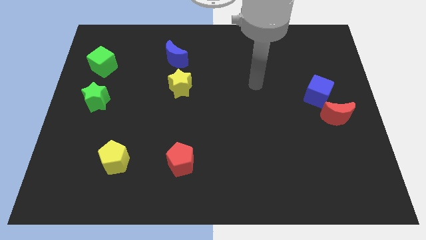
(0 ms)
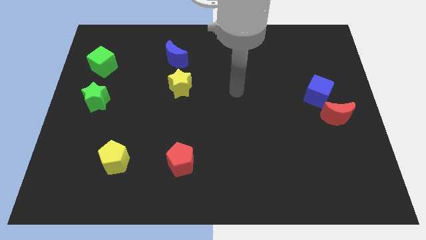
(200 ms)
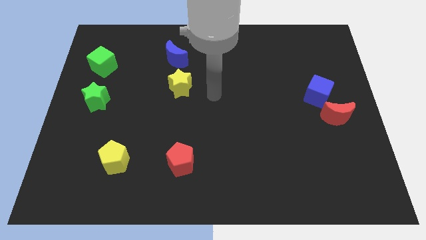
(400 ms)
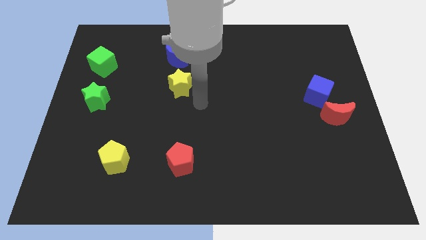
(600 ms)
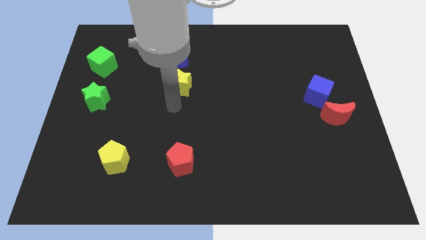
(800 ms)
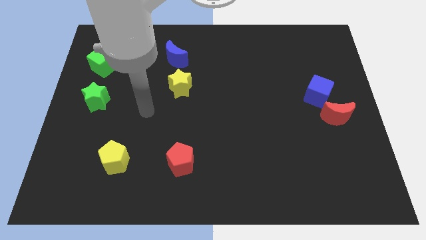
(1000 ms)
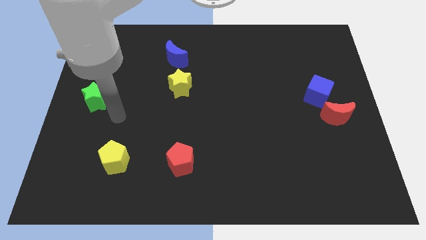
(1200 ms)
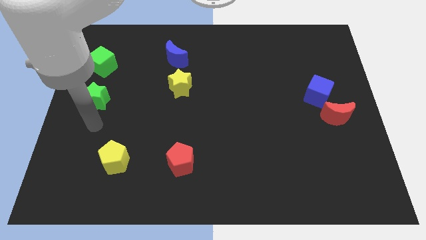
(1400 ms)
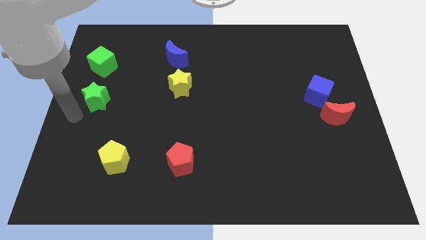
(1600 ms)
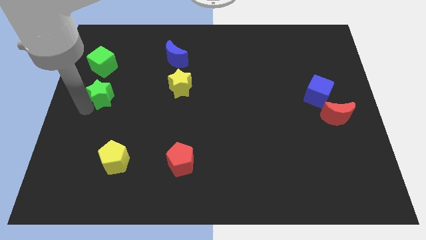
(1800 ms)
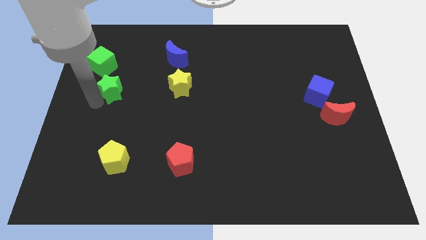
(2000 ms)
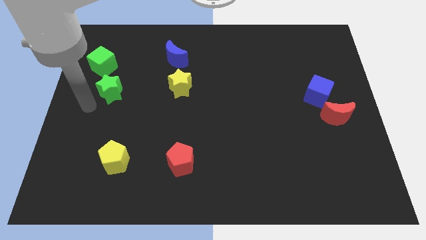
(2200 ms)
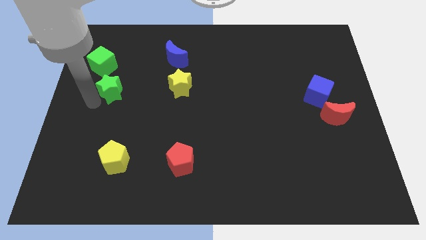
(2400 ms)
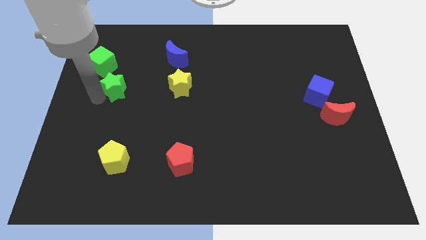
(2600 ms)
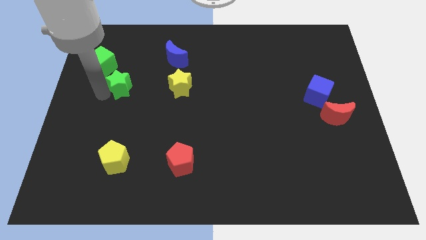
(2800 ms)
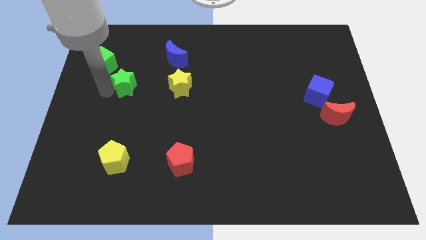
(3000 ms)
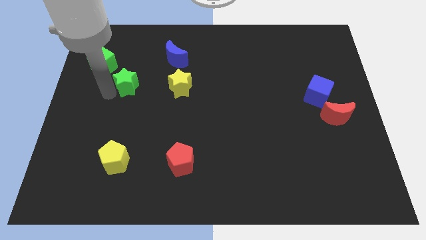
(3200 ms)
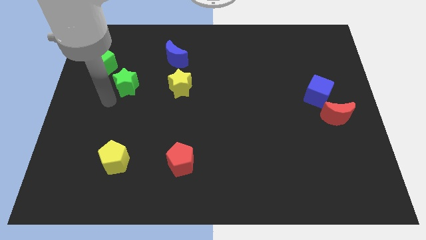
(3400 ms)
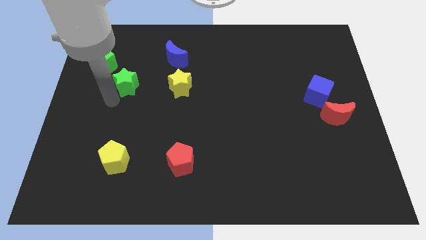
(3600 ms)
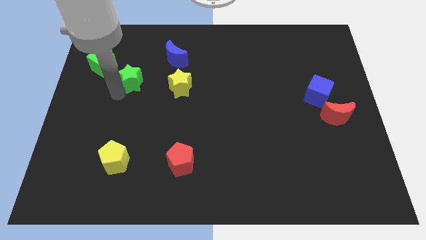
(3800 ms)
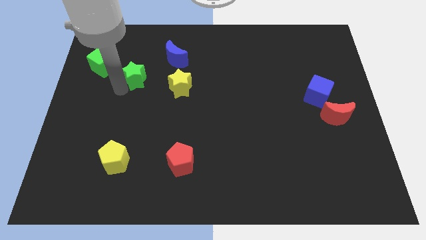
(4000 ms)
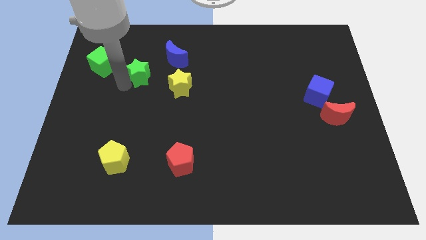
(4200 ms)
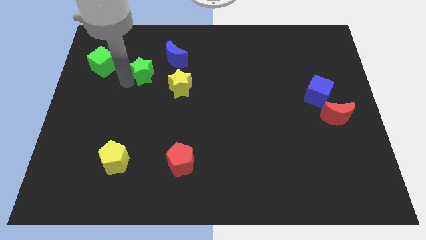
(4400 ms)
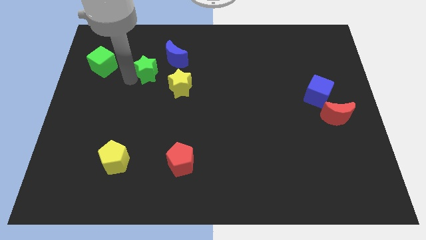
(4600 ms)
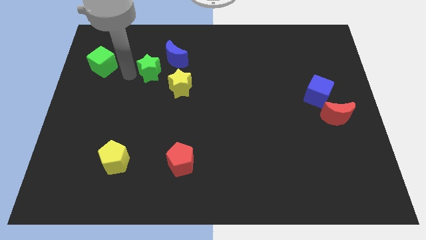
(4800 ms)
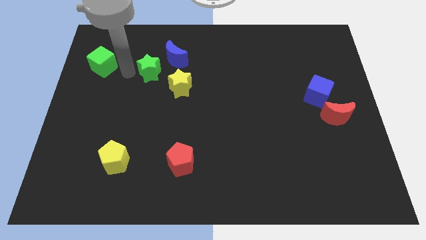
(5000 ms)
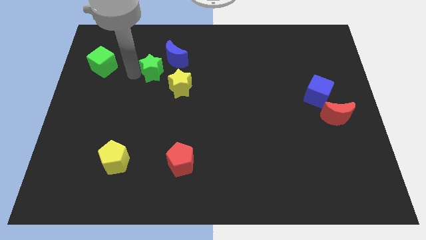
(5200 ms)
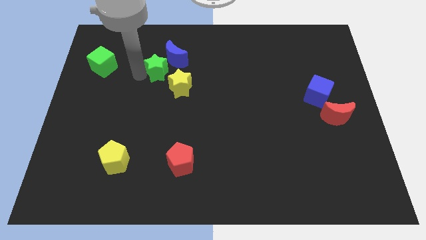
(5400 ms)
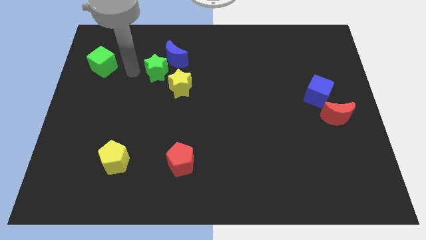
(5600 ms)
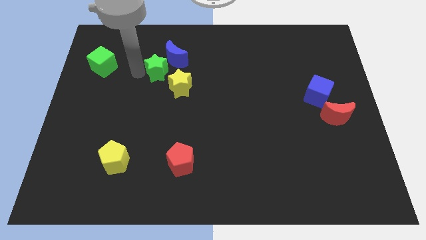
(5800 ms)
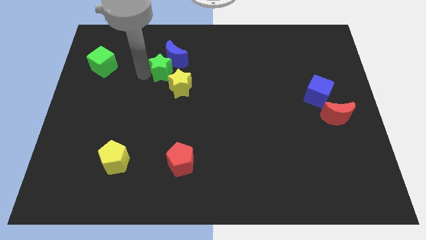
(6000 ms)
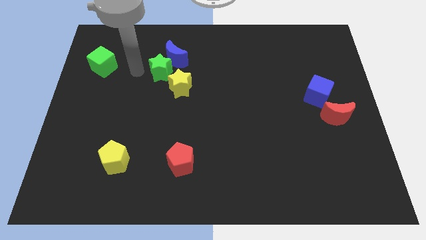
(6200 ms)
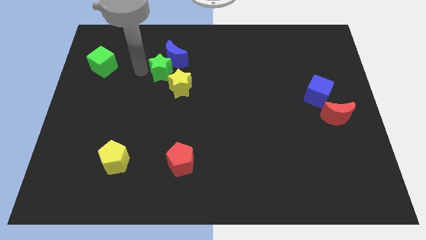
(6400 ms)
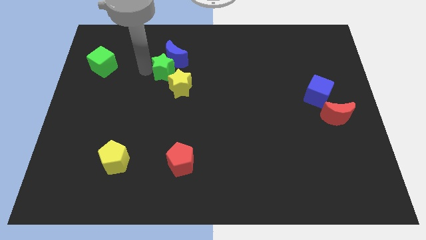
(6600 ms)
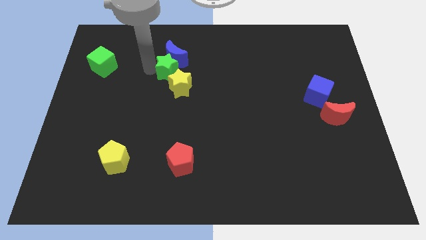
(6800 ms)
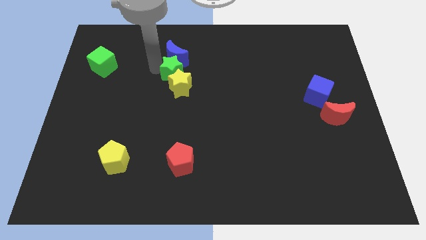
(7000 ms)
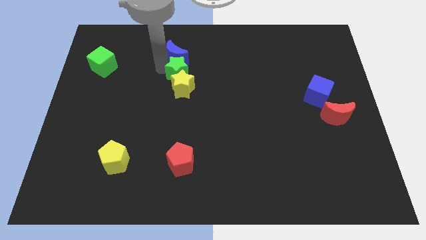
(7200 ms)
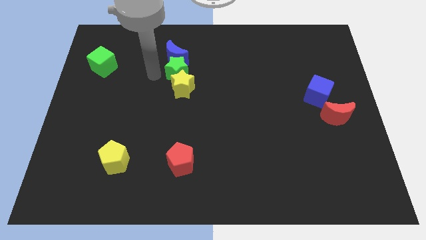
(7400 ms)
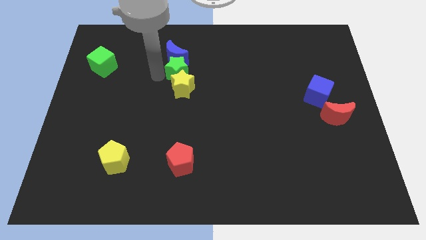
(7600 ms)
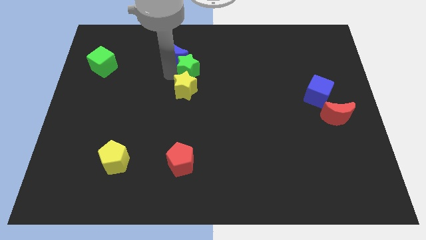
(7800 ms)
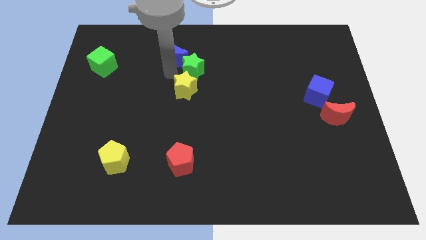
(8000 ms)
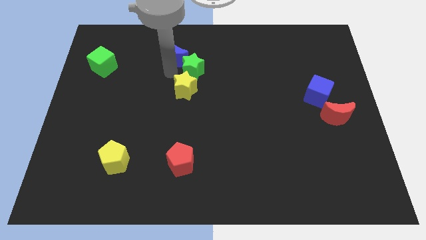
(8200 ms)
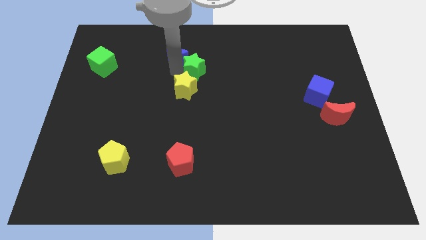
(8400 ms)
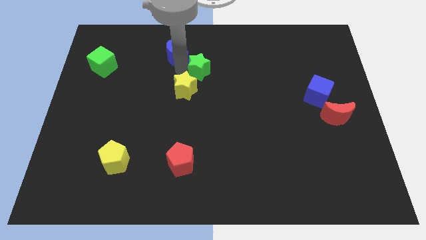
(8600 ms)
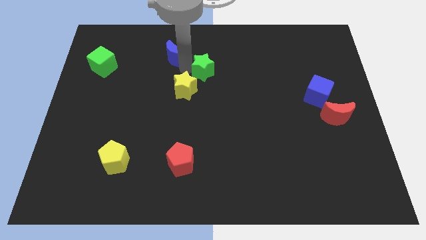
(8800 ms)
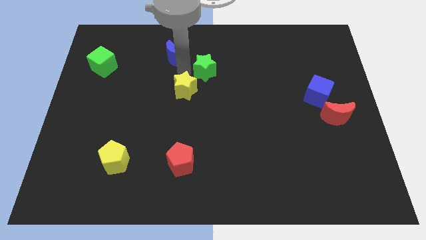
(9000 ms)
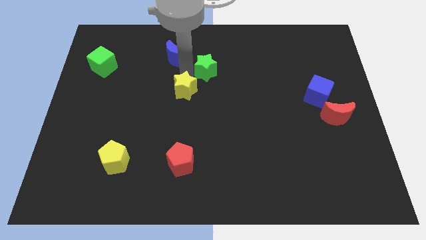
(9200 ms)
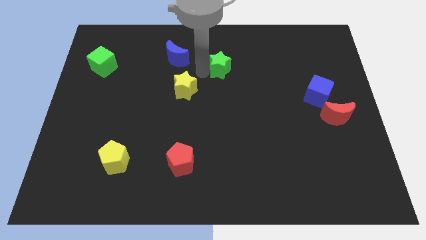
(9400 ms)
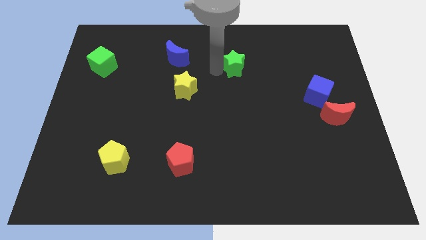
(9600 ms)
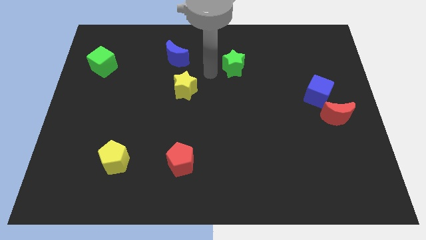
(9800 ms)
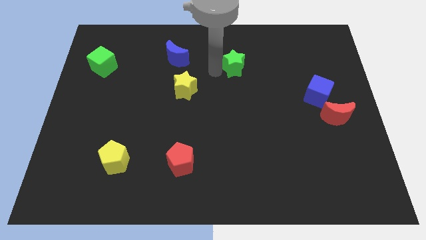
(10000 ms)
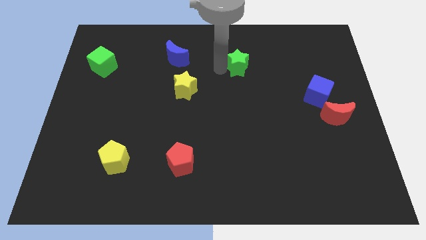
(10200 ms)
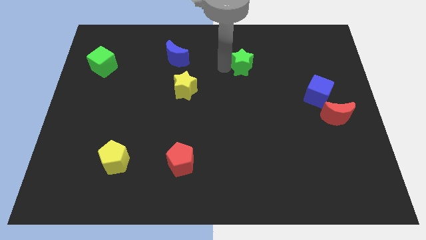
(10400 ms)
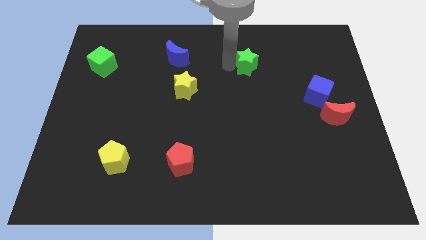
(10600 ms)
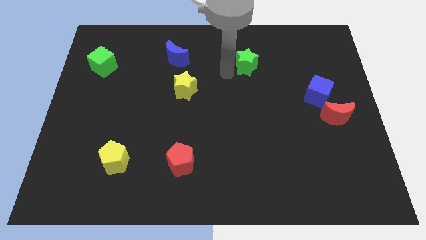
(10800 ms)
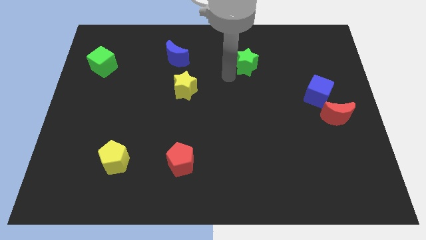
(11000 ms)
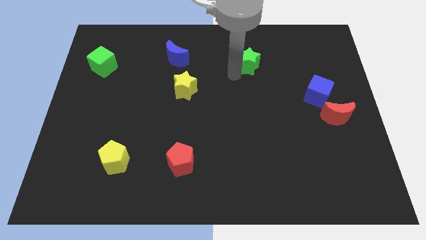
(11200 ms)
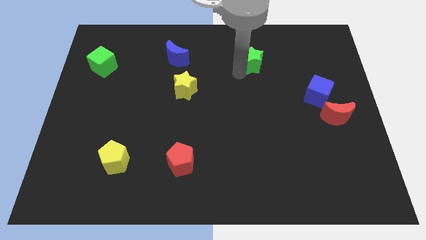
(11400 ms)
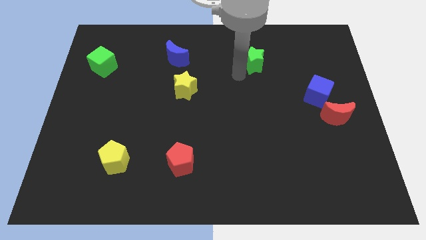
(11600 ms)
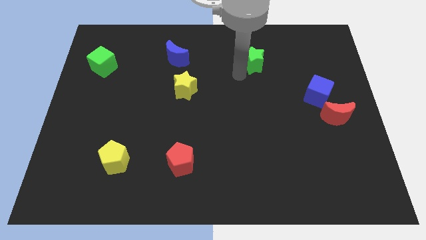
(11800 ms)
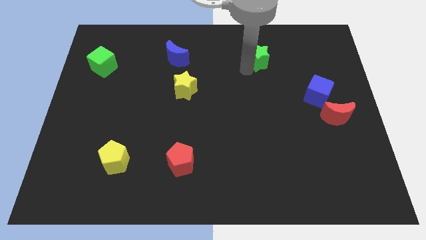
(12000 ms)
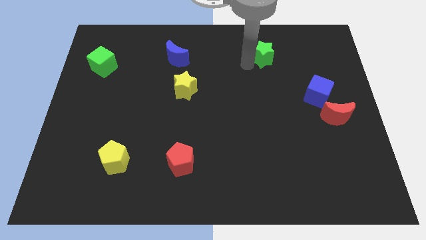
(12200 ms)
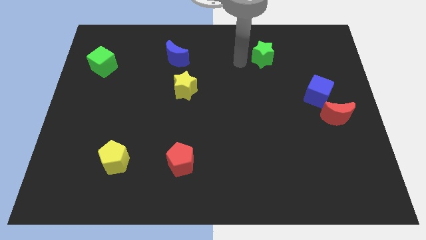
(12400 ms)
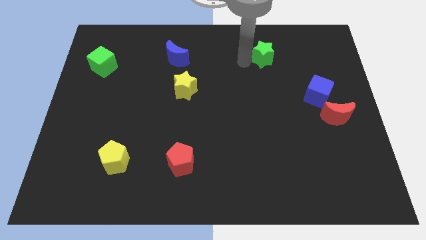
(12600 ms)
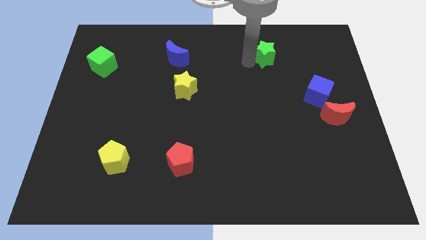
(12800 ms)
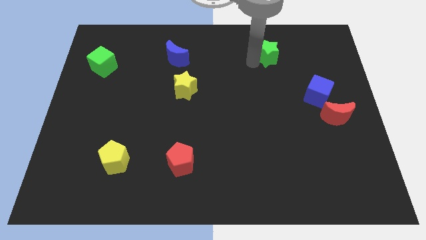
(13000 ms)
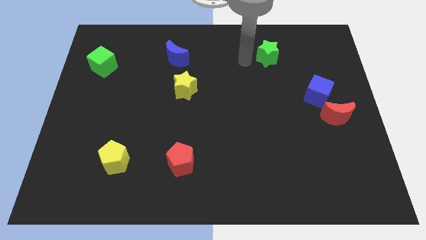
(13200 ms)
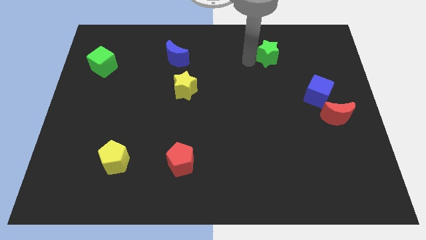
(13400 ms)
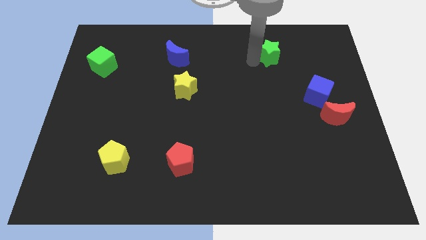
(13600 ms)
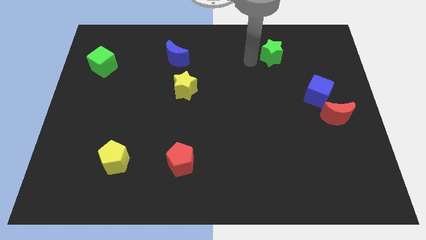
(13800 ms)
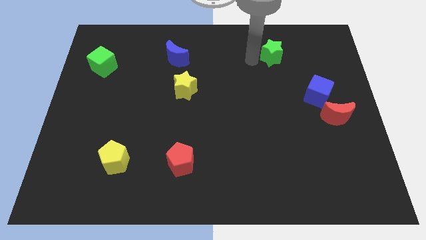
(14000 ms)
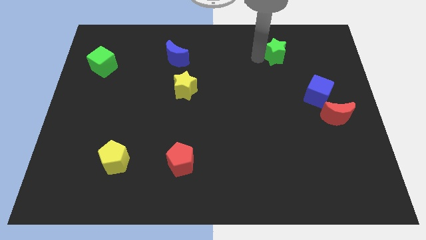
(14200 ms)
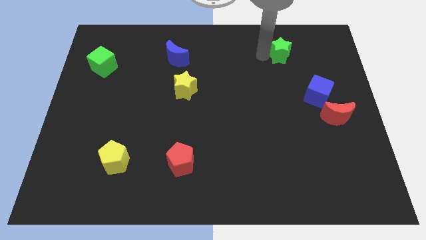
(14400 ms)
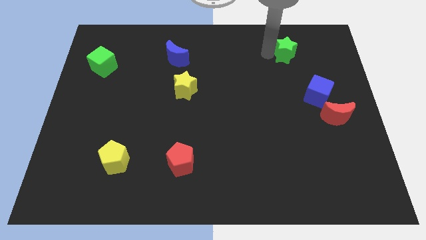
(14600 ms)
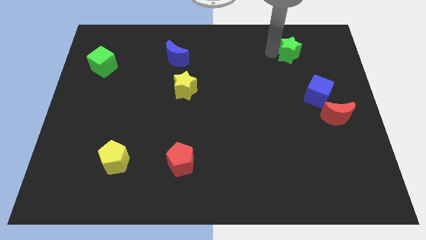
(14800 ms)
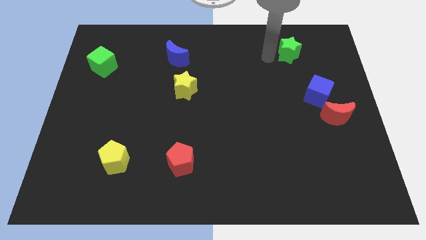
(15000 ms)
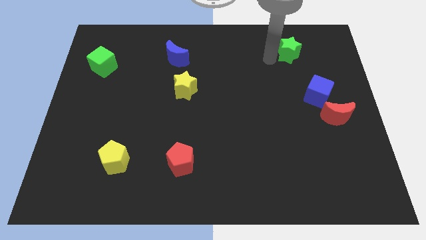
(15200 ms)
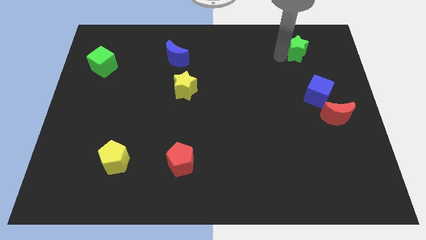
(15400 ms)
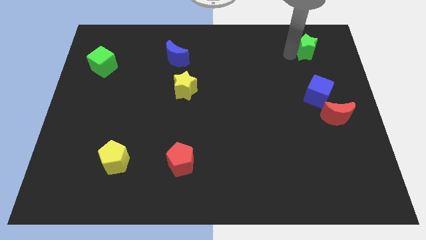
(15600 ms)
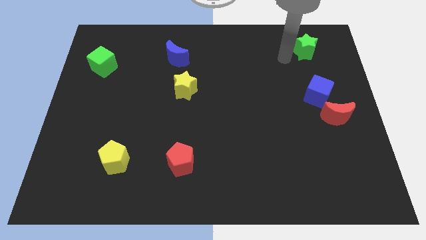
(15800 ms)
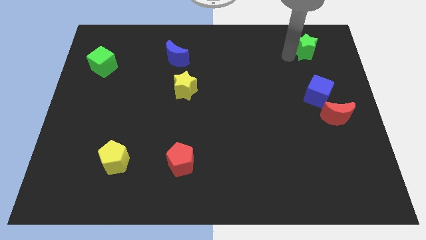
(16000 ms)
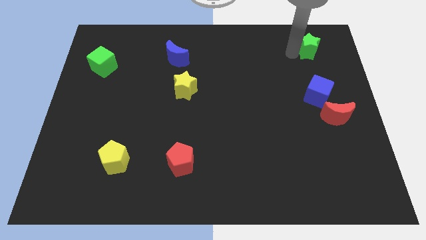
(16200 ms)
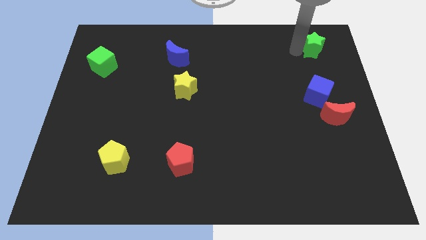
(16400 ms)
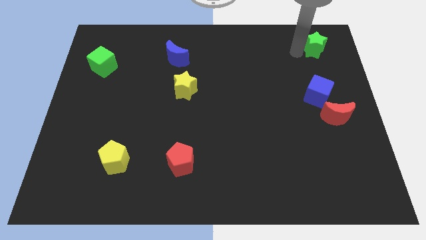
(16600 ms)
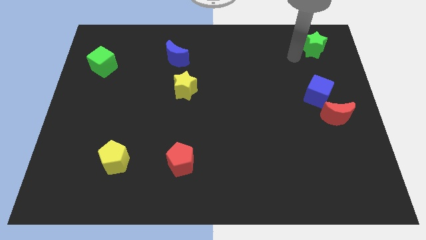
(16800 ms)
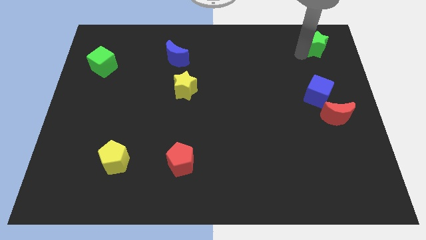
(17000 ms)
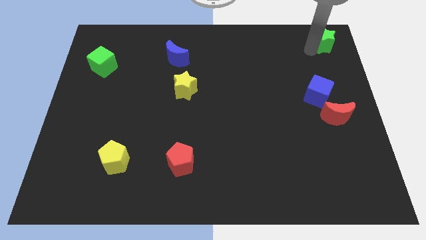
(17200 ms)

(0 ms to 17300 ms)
put the green star to the top right
